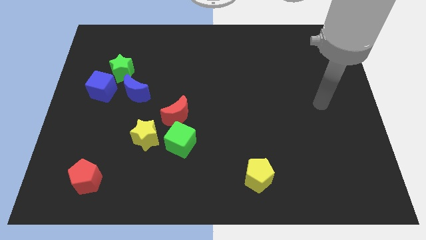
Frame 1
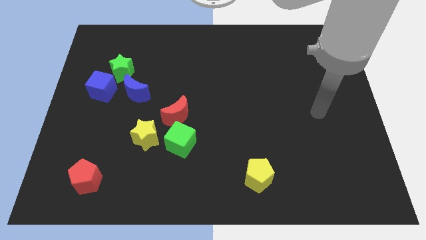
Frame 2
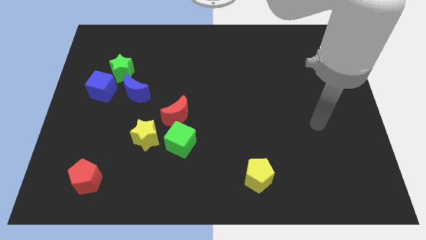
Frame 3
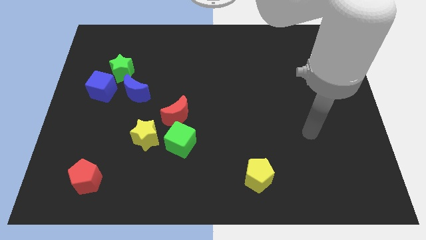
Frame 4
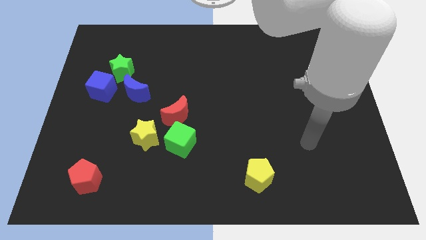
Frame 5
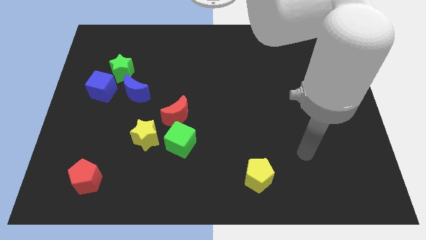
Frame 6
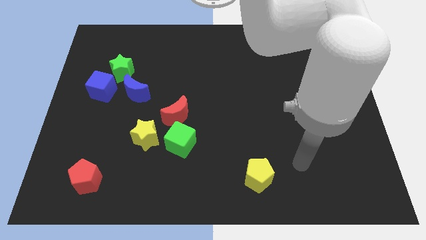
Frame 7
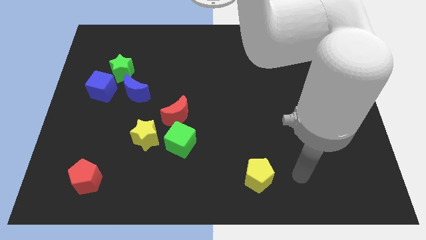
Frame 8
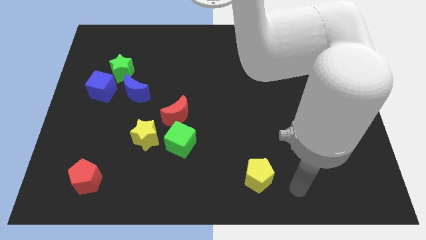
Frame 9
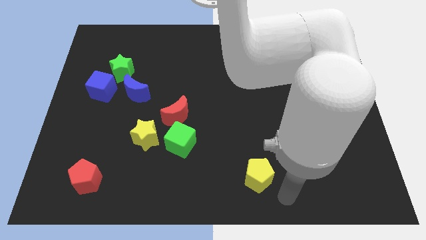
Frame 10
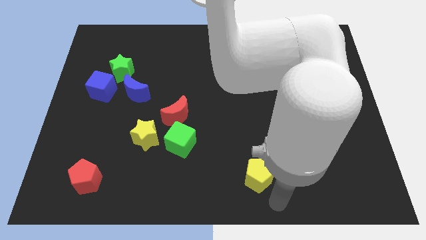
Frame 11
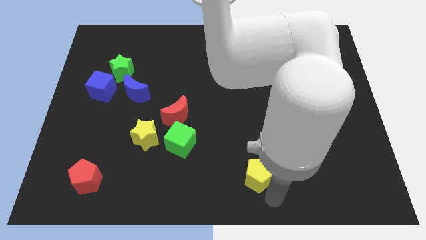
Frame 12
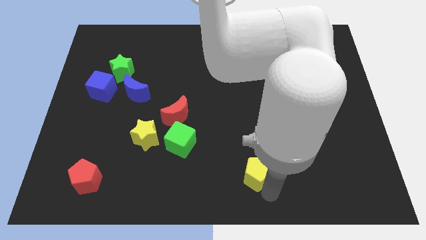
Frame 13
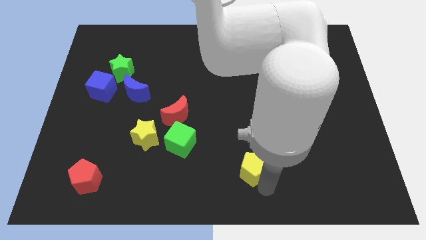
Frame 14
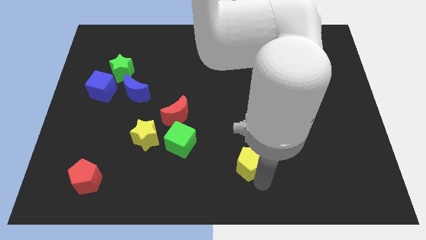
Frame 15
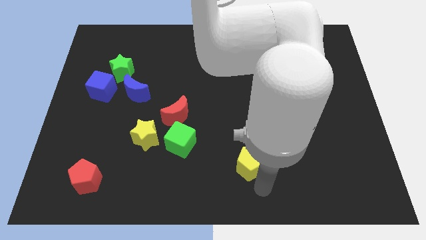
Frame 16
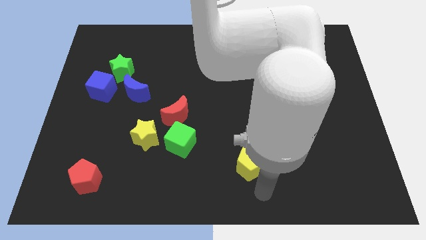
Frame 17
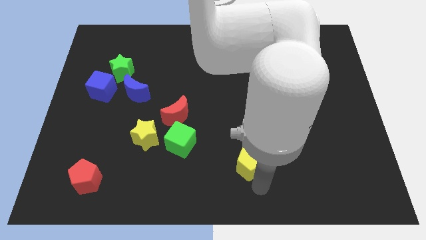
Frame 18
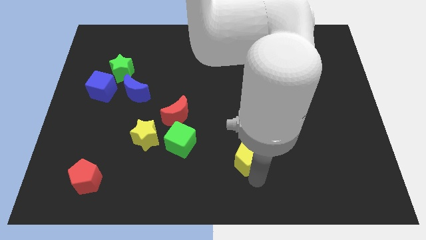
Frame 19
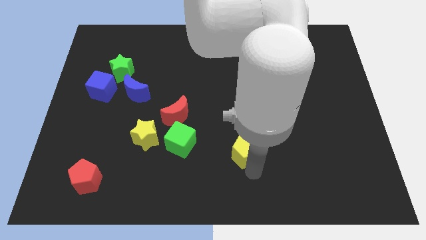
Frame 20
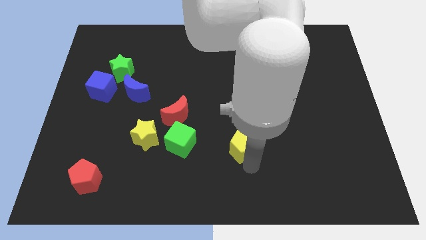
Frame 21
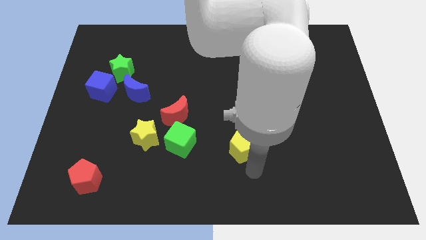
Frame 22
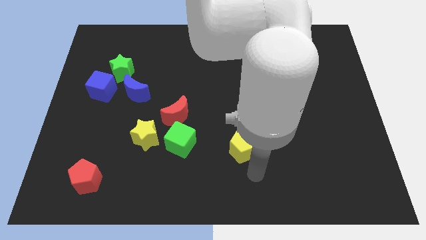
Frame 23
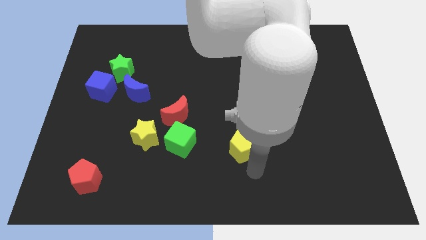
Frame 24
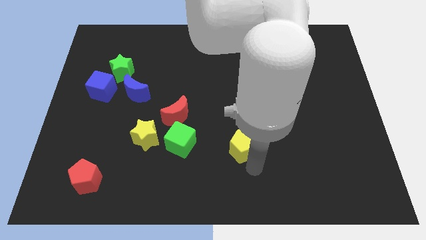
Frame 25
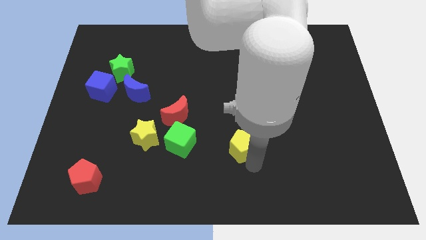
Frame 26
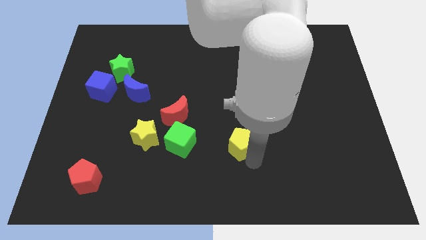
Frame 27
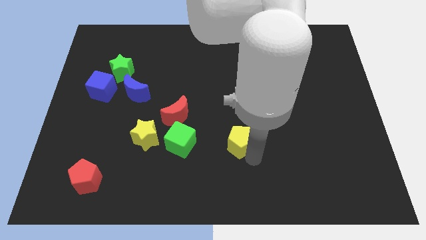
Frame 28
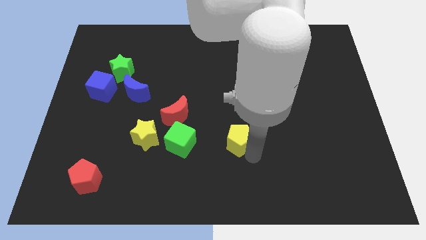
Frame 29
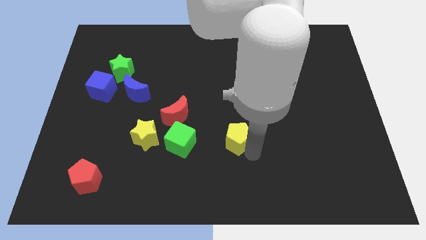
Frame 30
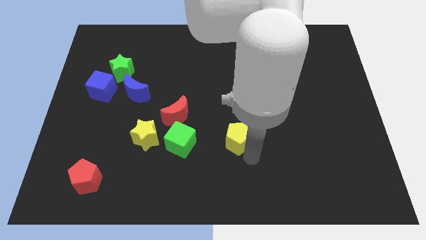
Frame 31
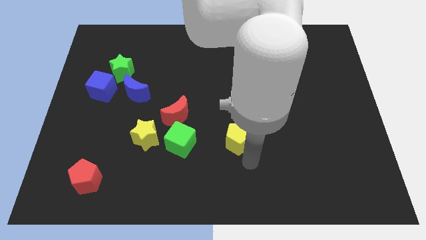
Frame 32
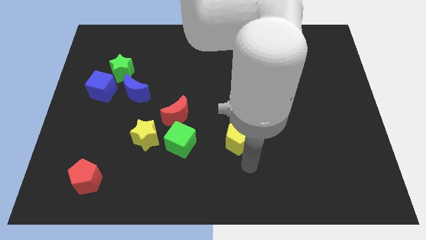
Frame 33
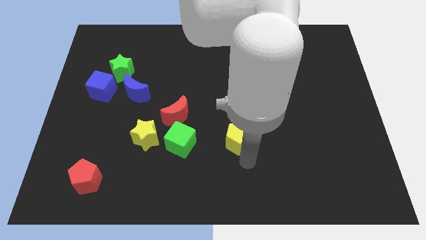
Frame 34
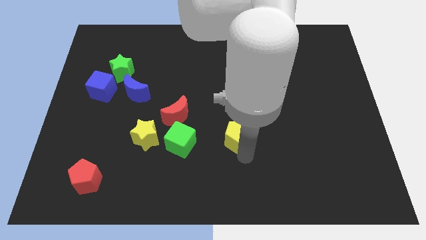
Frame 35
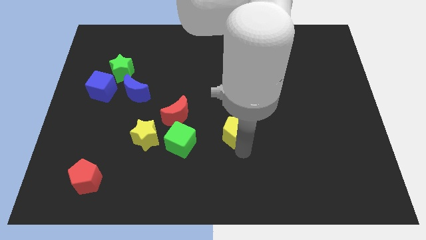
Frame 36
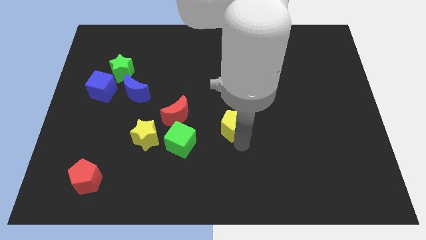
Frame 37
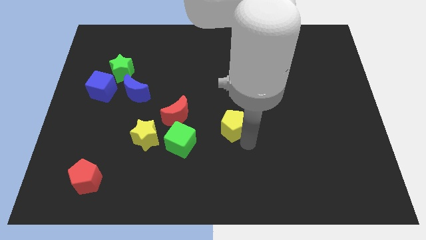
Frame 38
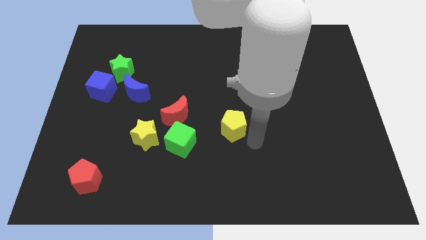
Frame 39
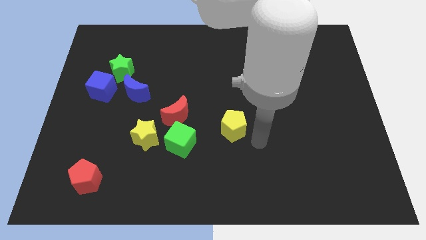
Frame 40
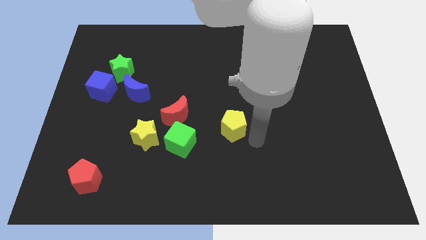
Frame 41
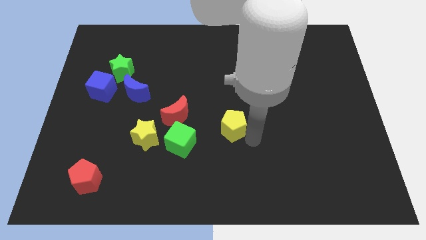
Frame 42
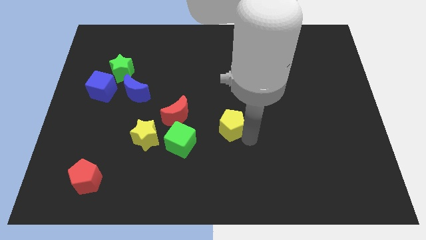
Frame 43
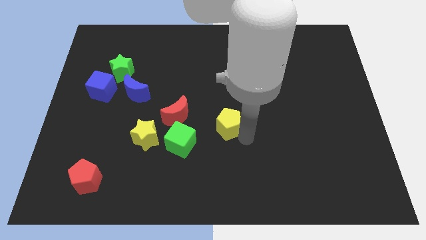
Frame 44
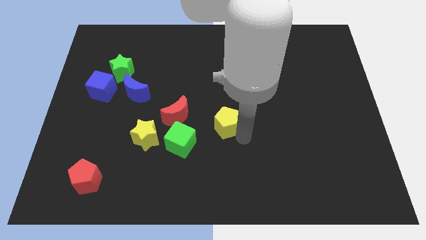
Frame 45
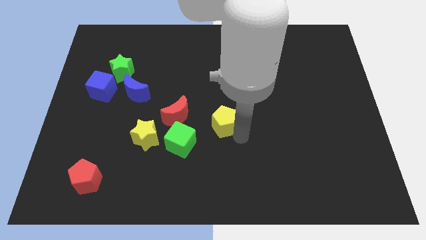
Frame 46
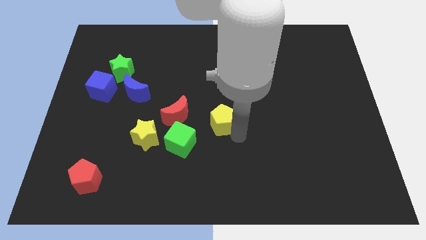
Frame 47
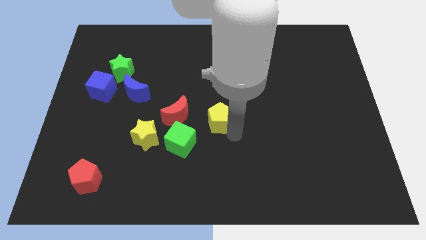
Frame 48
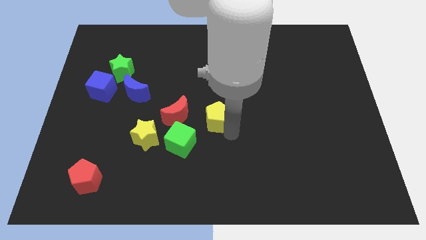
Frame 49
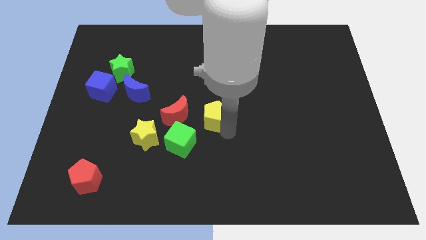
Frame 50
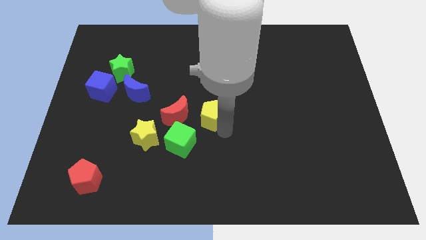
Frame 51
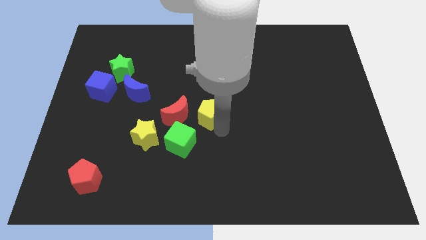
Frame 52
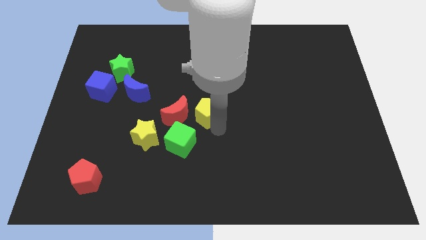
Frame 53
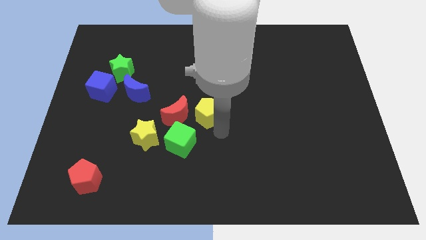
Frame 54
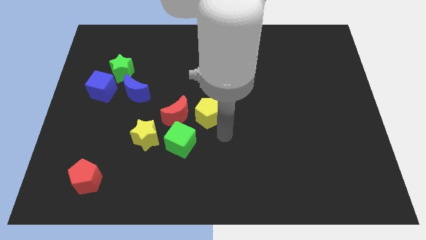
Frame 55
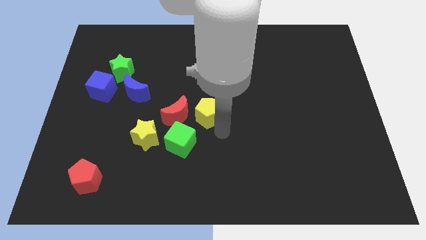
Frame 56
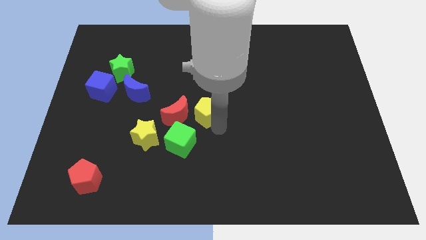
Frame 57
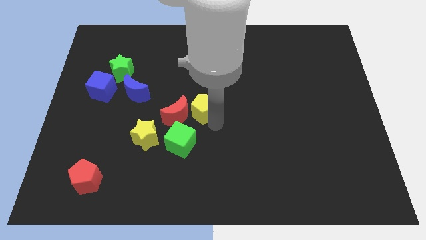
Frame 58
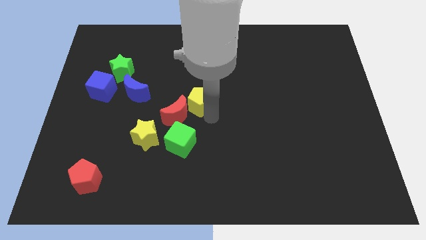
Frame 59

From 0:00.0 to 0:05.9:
slide the yellow pentagon diagonally upwards and left

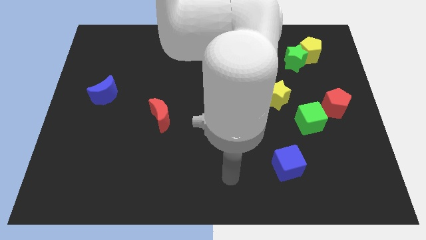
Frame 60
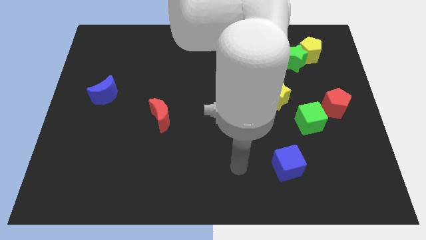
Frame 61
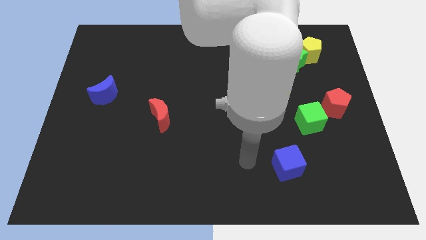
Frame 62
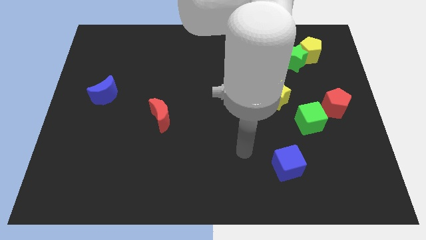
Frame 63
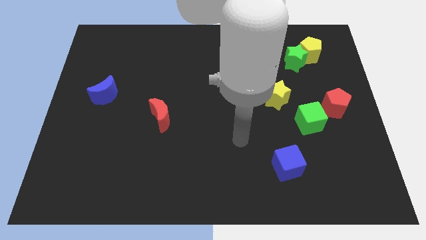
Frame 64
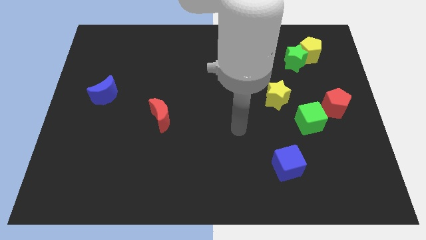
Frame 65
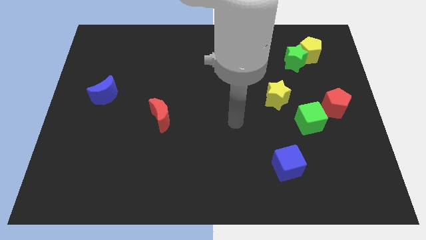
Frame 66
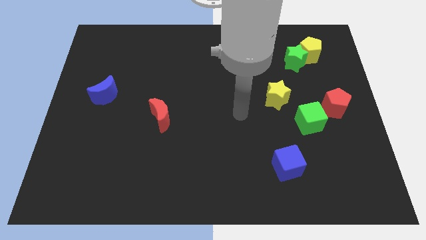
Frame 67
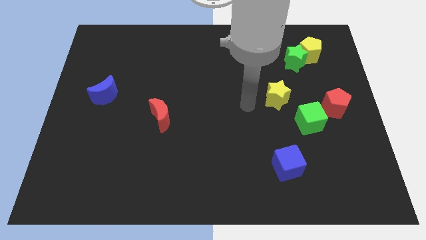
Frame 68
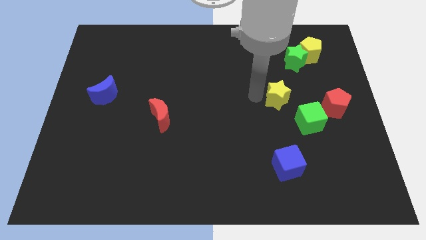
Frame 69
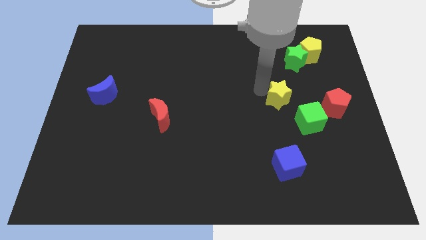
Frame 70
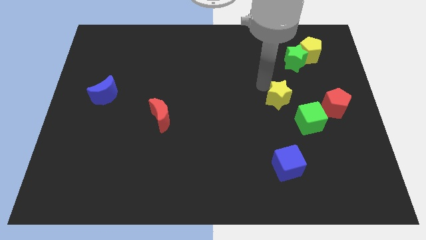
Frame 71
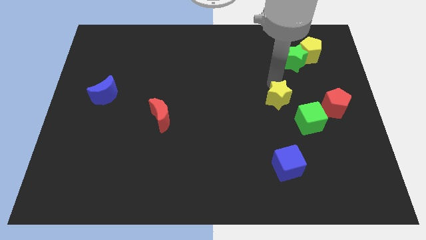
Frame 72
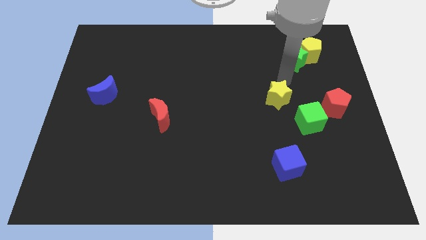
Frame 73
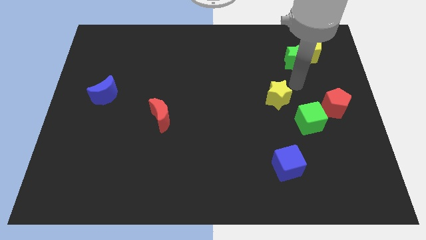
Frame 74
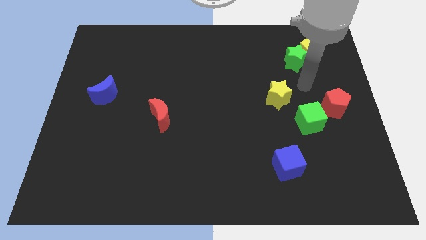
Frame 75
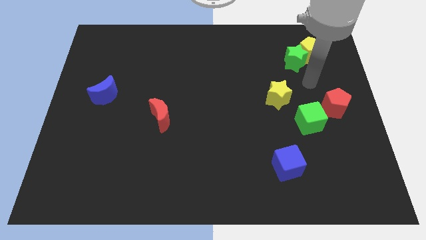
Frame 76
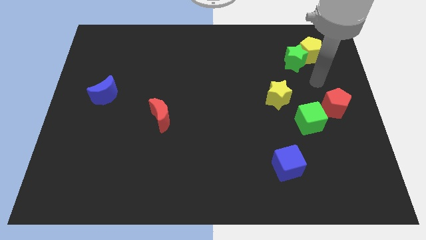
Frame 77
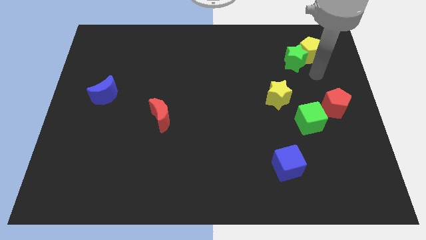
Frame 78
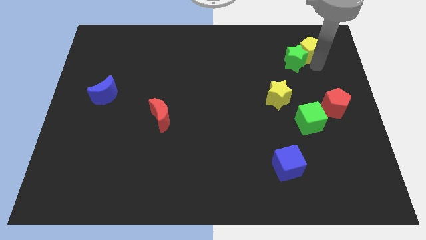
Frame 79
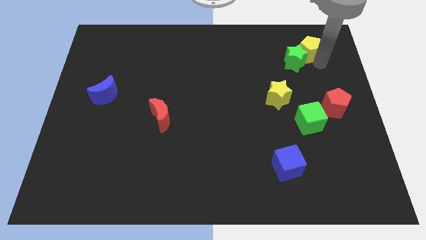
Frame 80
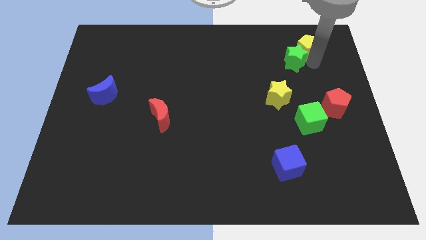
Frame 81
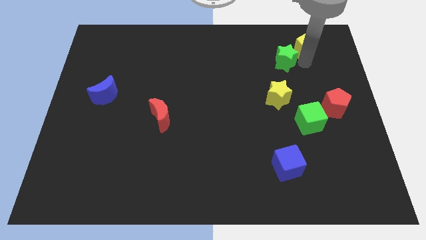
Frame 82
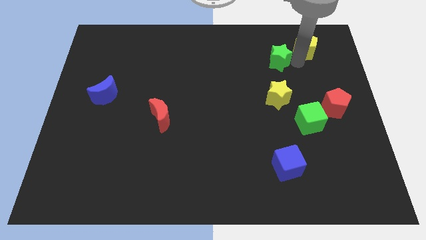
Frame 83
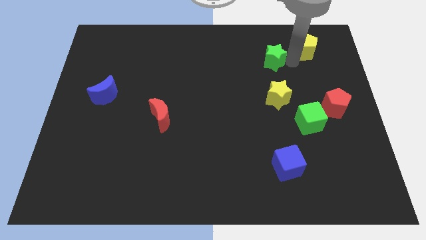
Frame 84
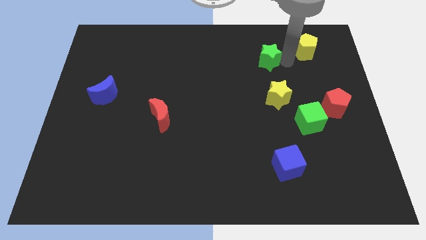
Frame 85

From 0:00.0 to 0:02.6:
slide the green star a bit left
